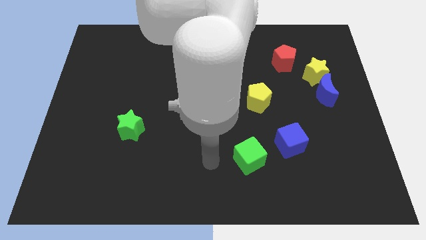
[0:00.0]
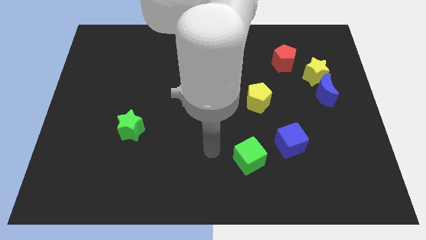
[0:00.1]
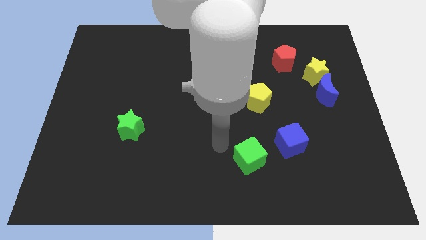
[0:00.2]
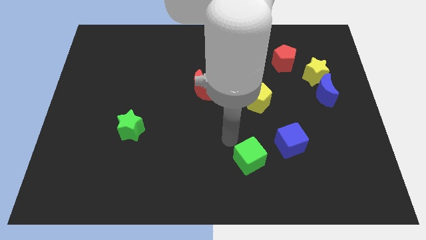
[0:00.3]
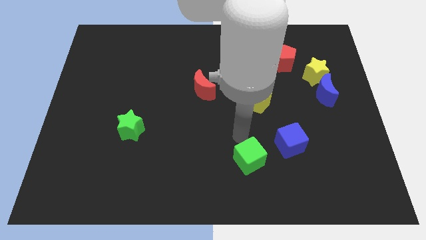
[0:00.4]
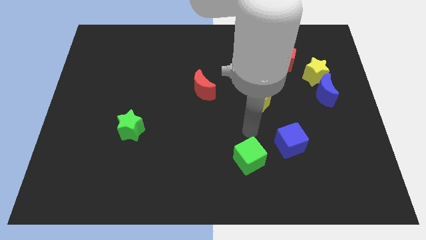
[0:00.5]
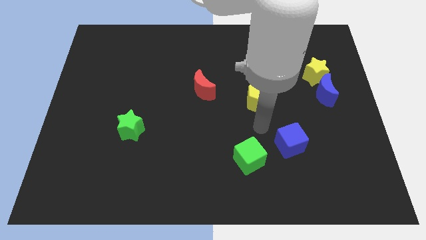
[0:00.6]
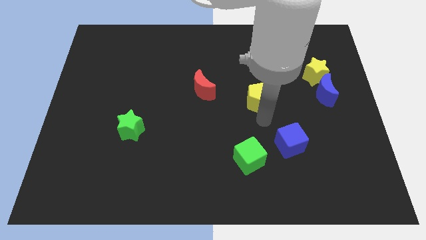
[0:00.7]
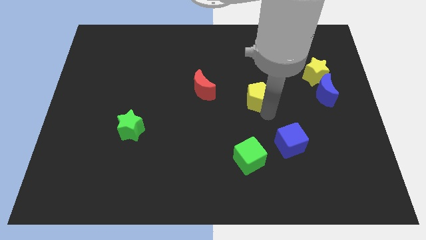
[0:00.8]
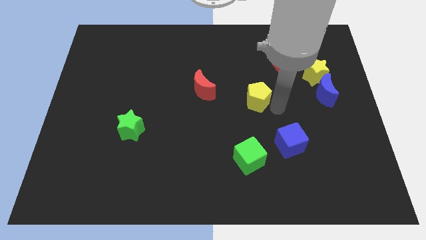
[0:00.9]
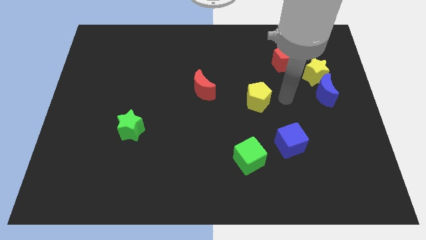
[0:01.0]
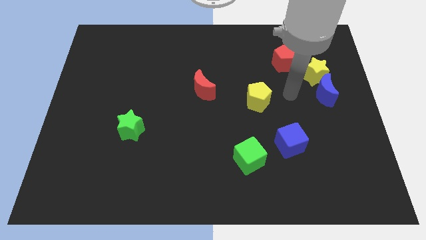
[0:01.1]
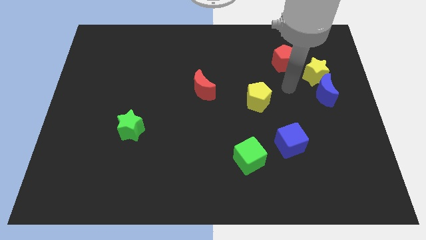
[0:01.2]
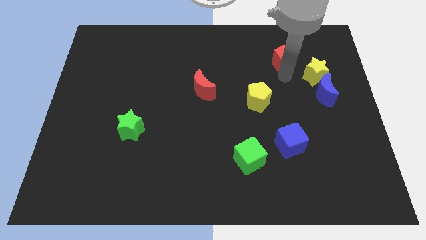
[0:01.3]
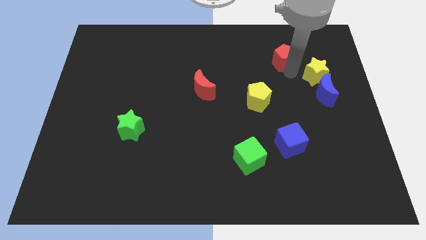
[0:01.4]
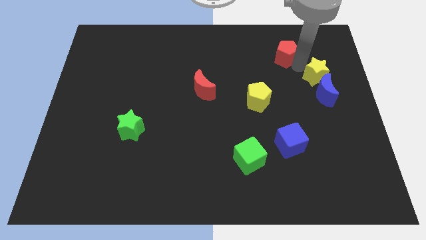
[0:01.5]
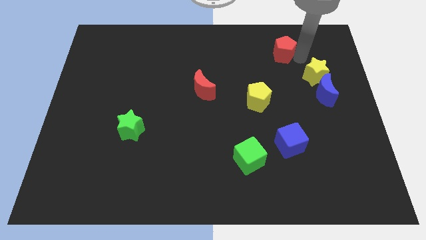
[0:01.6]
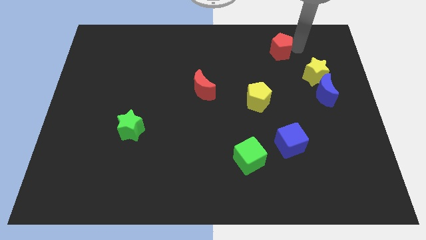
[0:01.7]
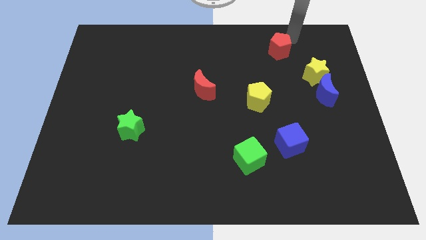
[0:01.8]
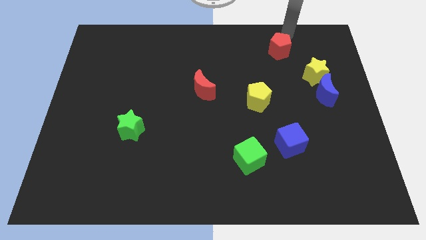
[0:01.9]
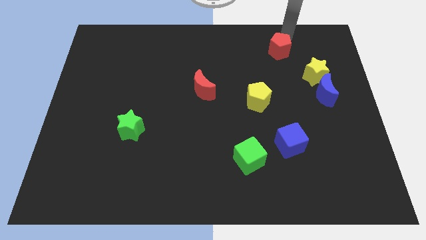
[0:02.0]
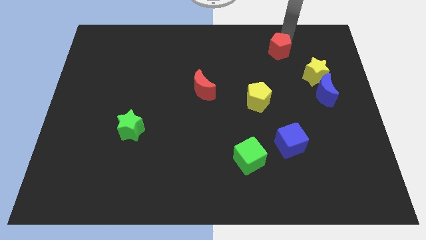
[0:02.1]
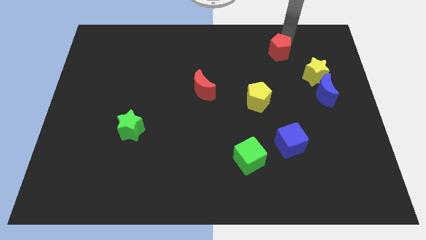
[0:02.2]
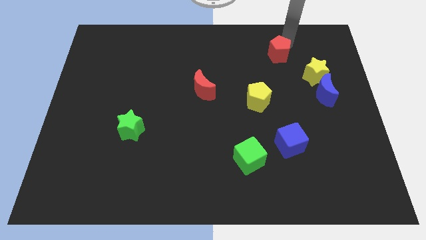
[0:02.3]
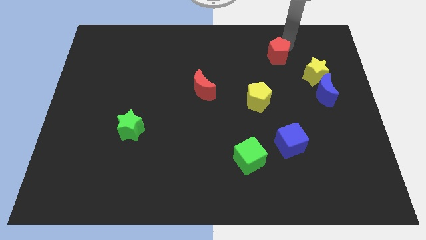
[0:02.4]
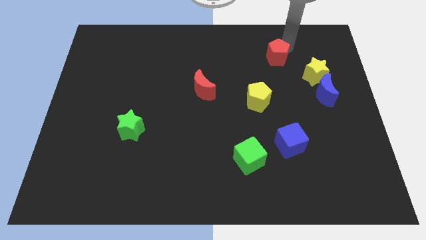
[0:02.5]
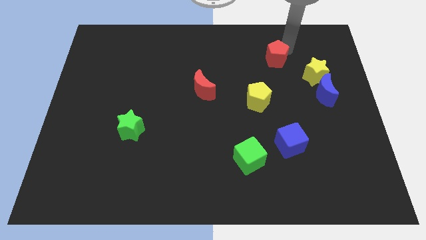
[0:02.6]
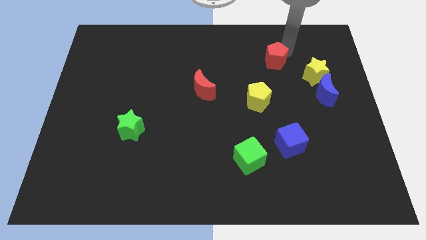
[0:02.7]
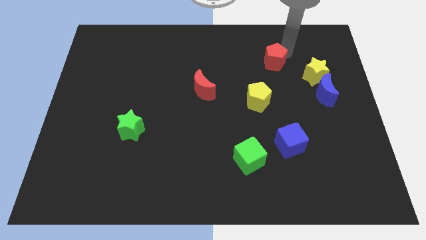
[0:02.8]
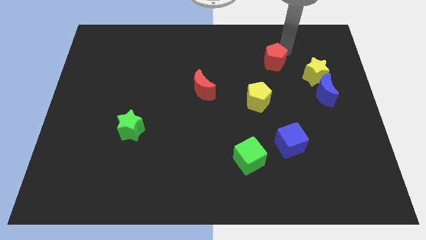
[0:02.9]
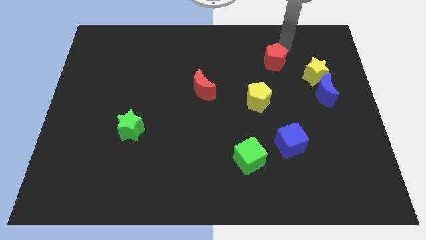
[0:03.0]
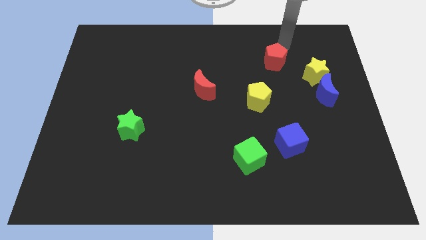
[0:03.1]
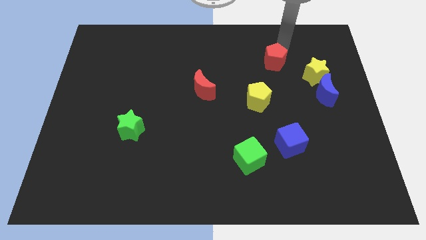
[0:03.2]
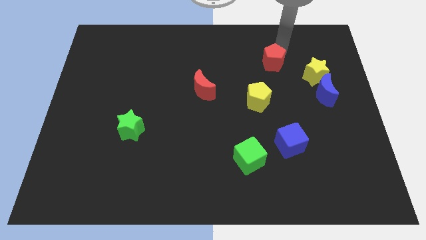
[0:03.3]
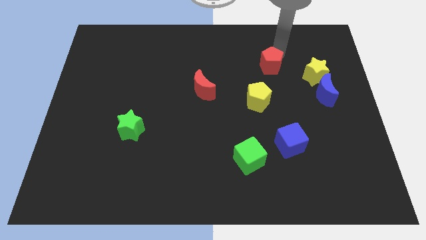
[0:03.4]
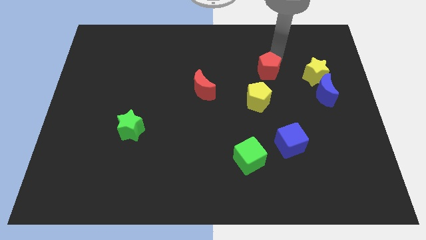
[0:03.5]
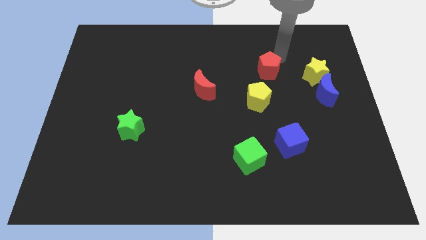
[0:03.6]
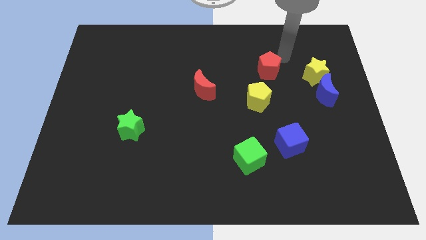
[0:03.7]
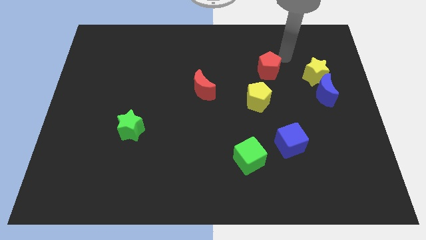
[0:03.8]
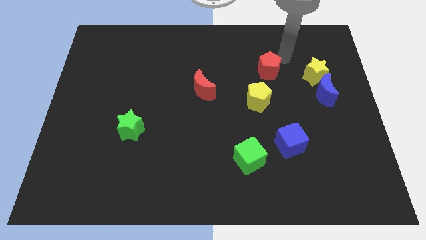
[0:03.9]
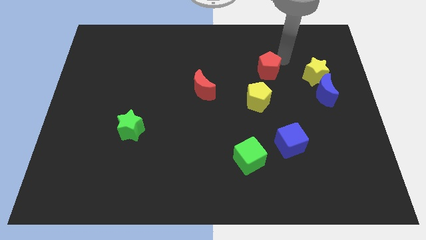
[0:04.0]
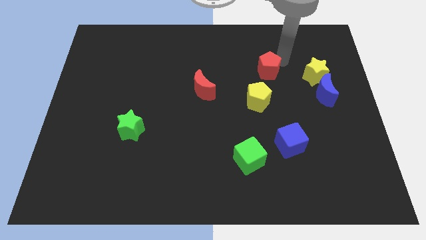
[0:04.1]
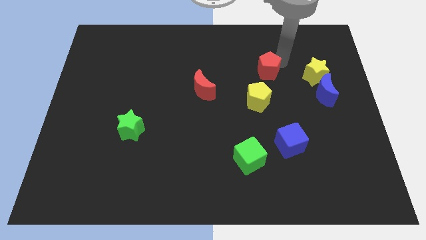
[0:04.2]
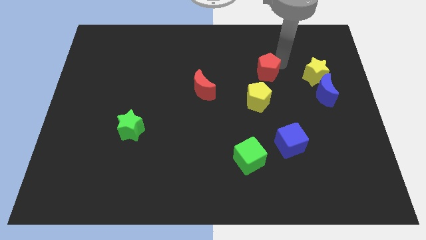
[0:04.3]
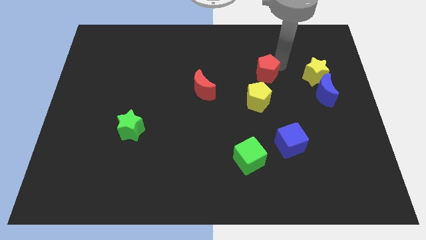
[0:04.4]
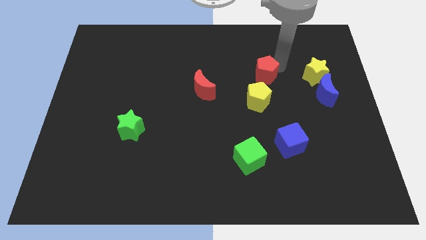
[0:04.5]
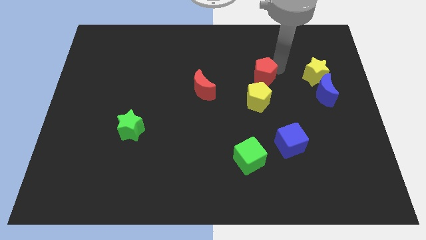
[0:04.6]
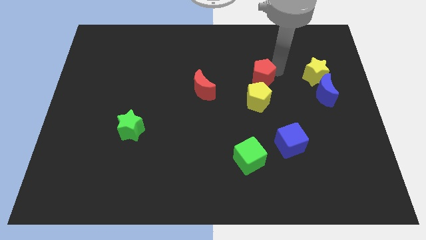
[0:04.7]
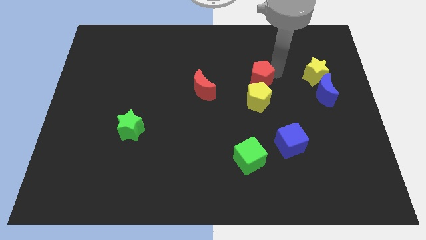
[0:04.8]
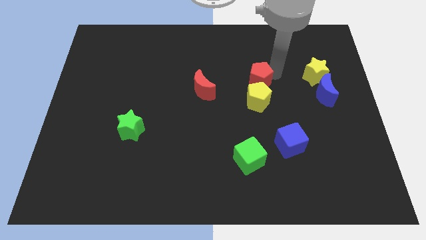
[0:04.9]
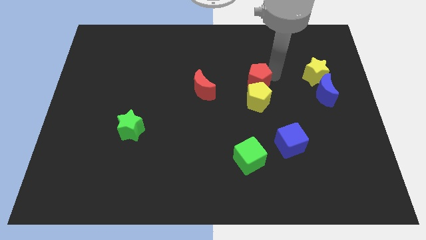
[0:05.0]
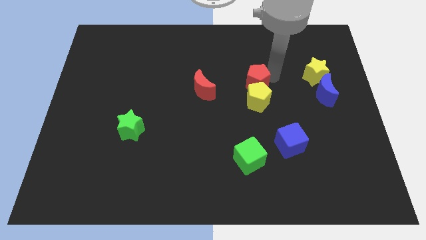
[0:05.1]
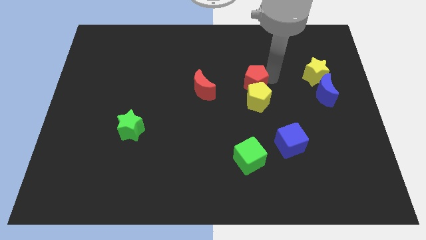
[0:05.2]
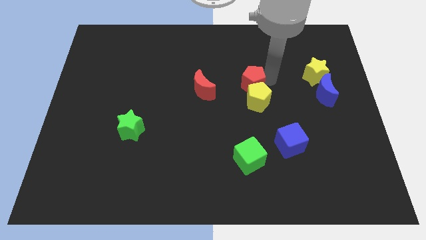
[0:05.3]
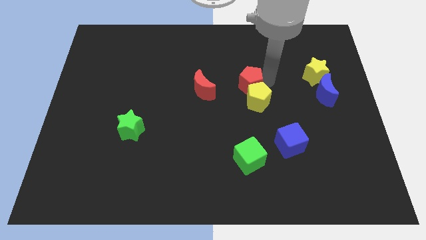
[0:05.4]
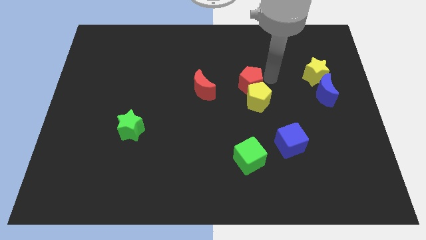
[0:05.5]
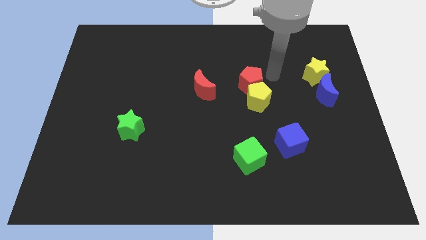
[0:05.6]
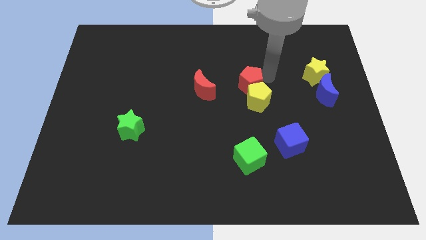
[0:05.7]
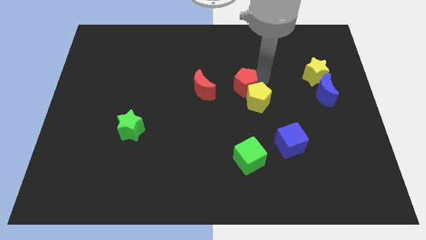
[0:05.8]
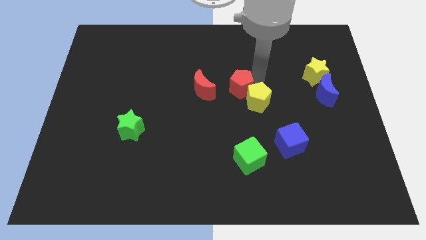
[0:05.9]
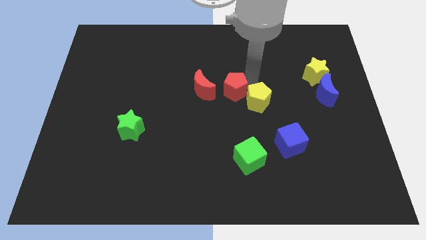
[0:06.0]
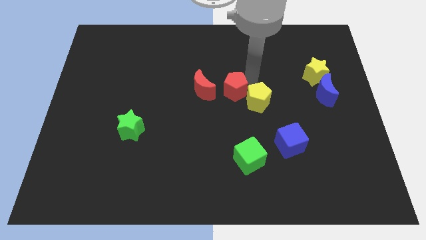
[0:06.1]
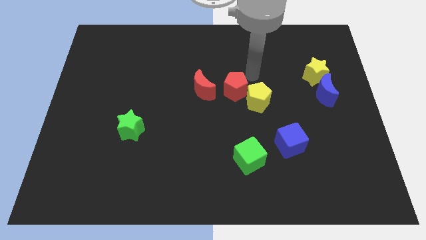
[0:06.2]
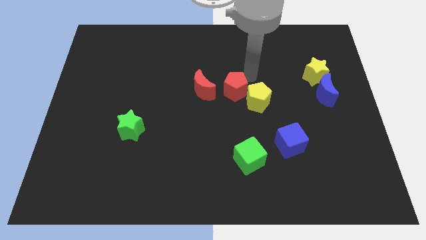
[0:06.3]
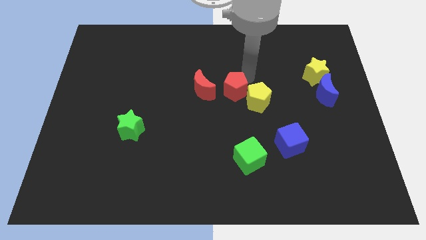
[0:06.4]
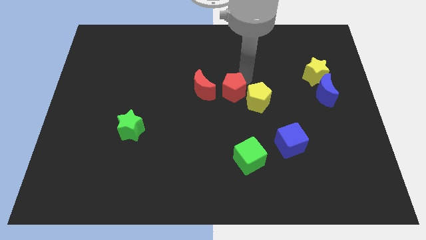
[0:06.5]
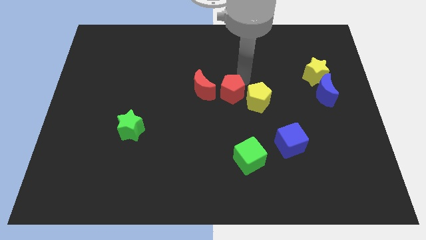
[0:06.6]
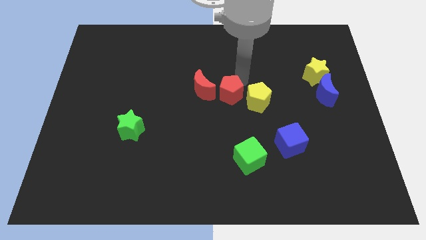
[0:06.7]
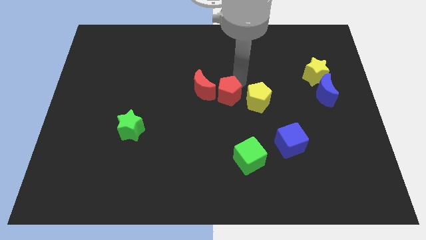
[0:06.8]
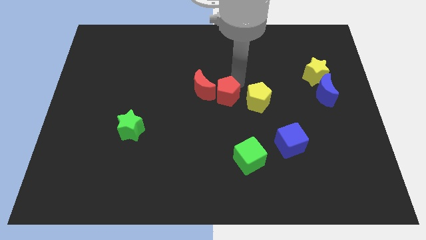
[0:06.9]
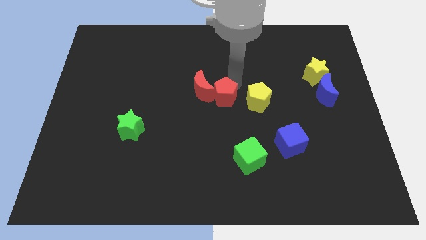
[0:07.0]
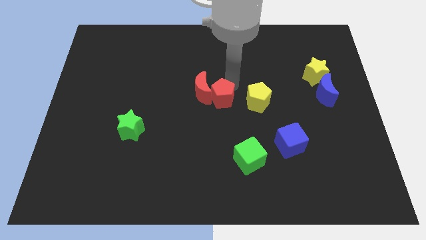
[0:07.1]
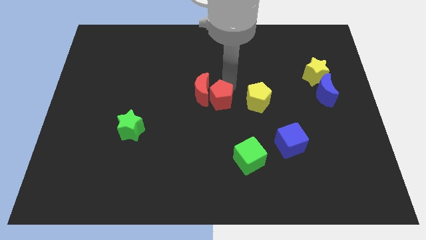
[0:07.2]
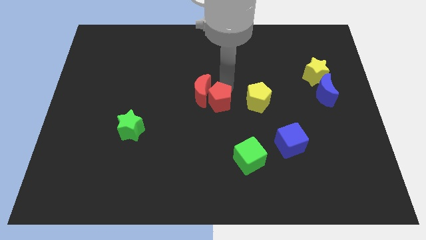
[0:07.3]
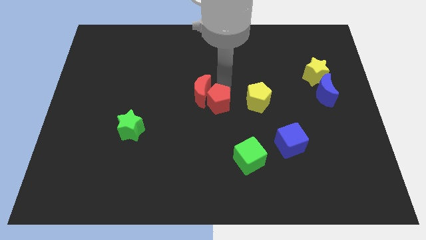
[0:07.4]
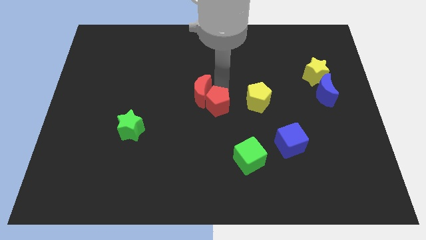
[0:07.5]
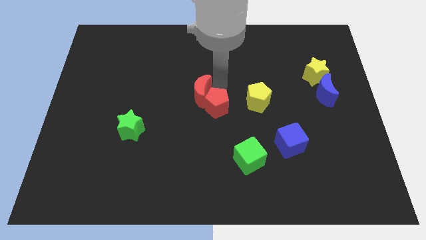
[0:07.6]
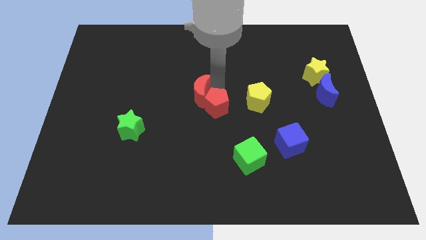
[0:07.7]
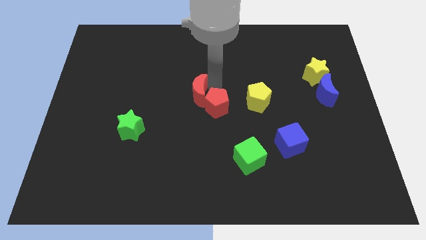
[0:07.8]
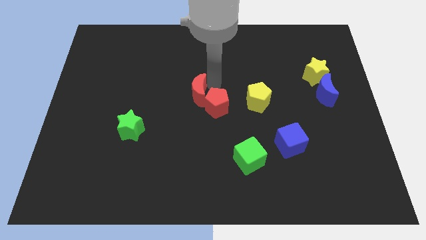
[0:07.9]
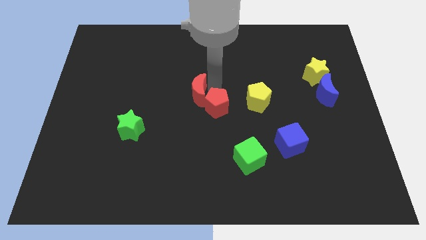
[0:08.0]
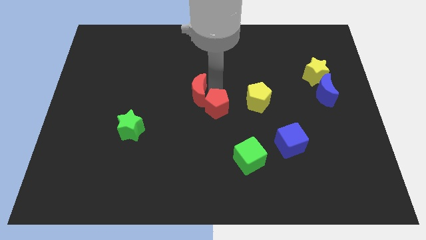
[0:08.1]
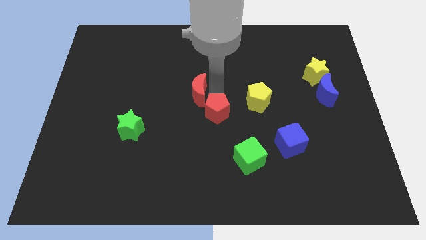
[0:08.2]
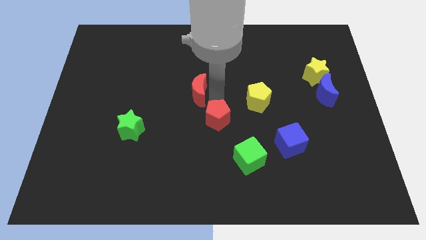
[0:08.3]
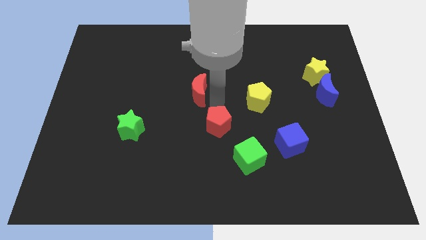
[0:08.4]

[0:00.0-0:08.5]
put the red pentagon to the top left of the green cube
